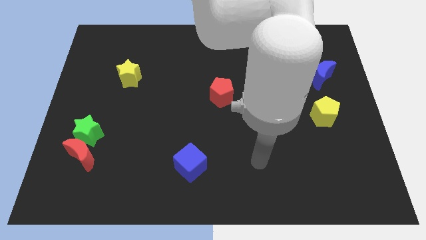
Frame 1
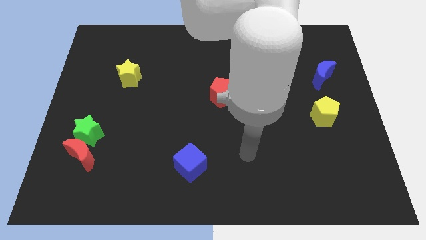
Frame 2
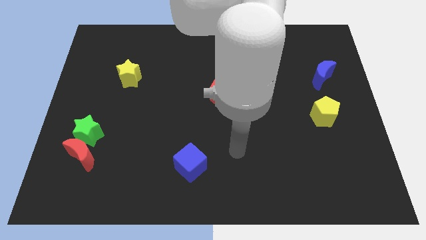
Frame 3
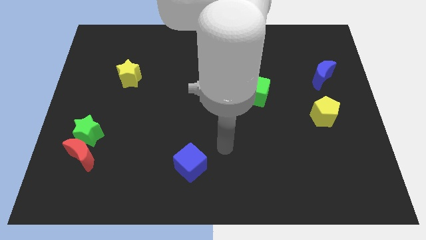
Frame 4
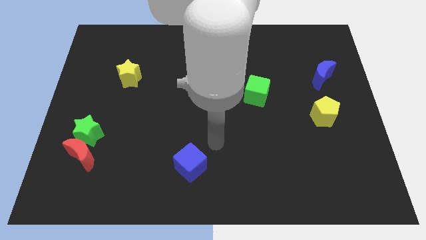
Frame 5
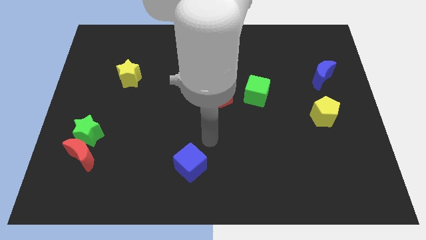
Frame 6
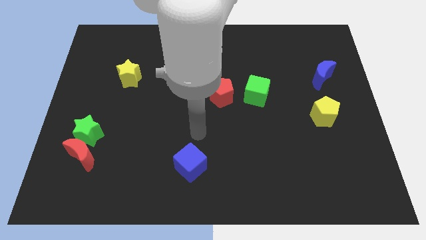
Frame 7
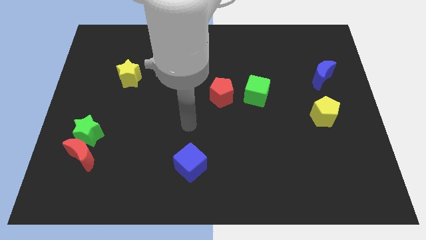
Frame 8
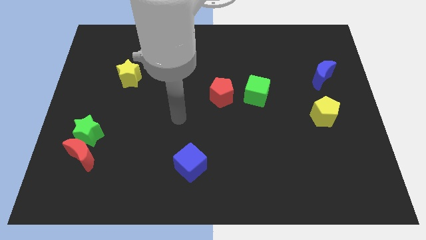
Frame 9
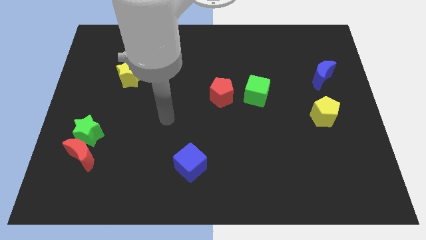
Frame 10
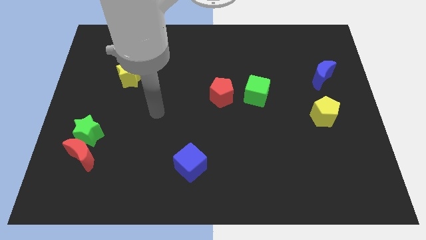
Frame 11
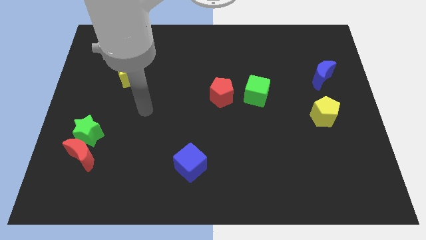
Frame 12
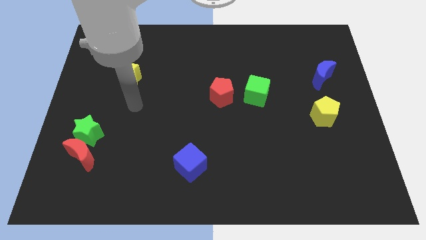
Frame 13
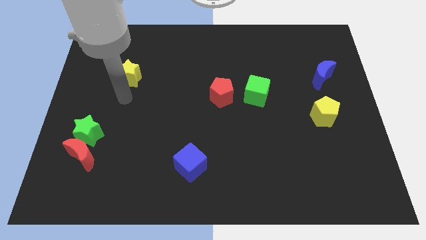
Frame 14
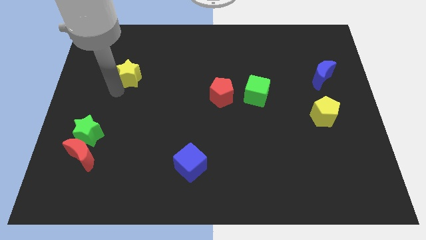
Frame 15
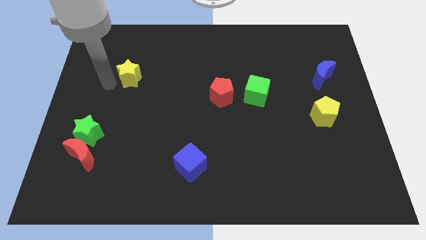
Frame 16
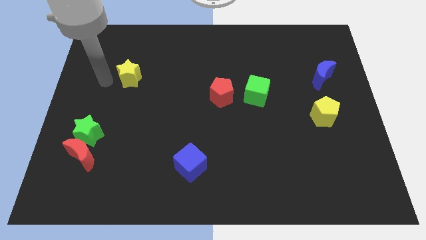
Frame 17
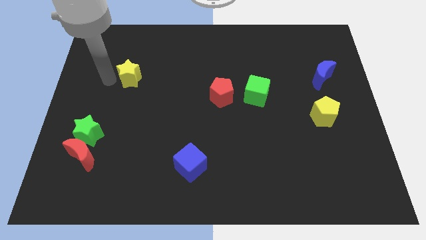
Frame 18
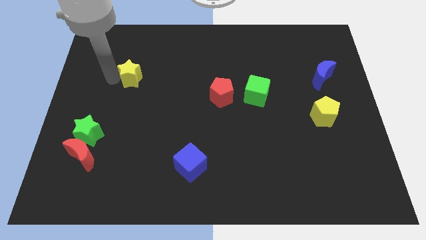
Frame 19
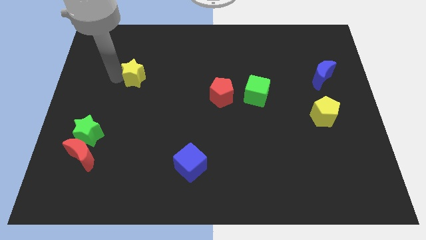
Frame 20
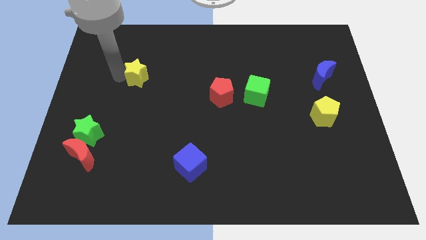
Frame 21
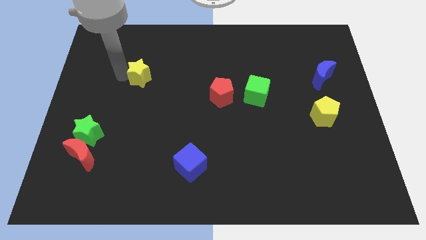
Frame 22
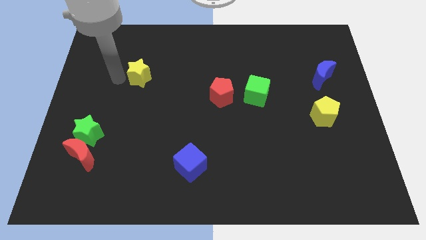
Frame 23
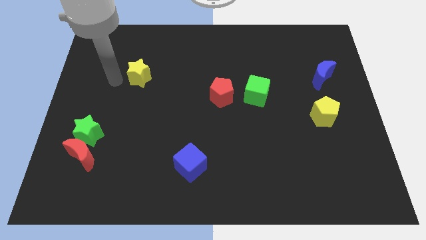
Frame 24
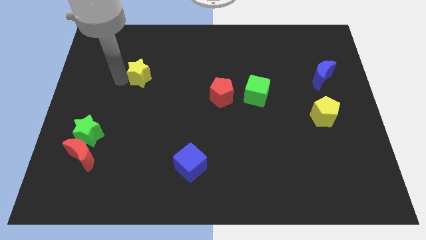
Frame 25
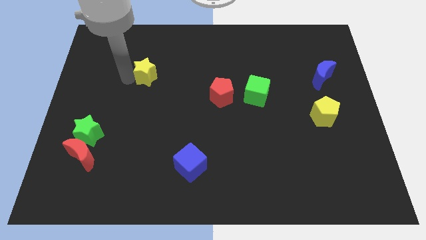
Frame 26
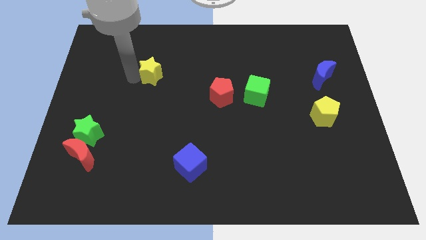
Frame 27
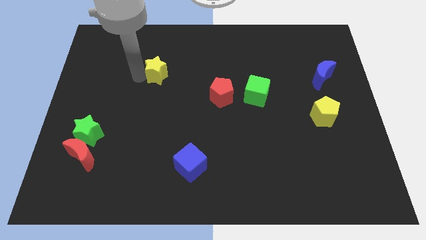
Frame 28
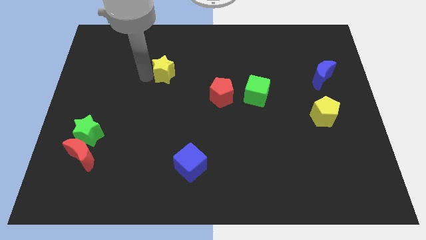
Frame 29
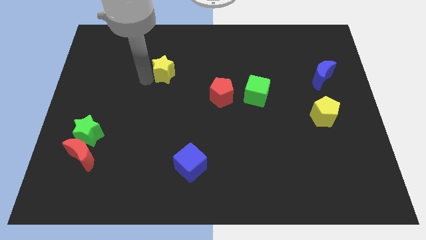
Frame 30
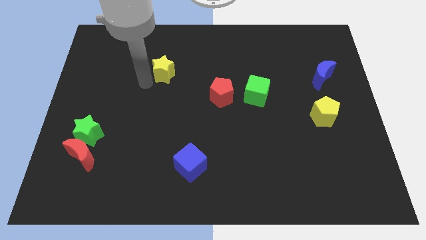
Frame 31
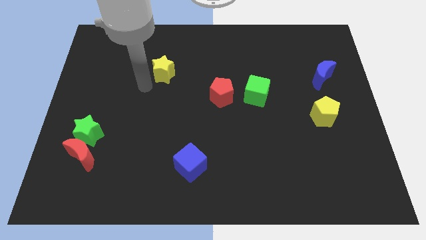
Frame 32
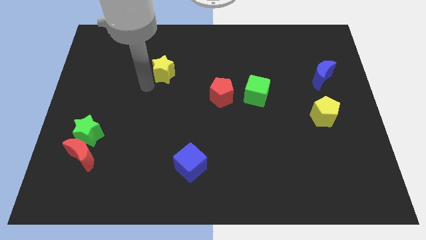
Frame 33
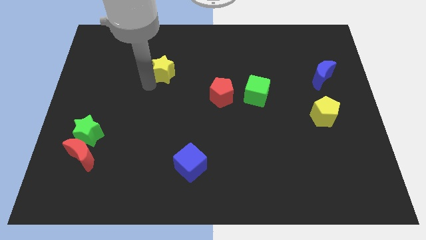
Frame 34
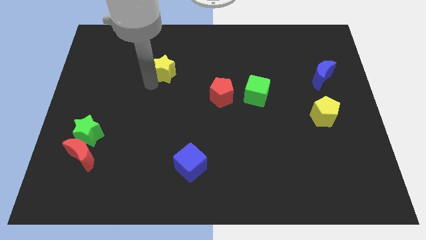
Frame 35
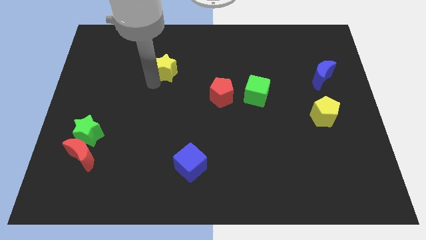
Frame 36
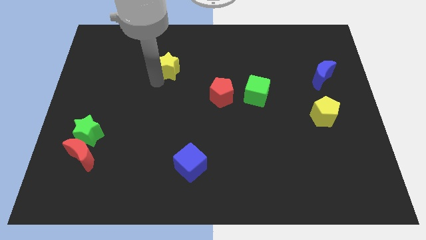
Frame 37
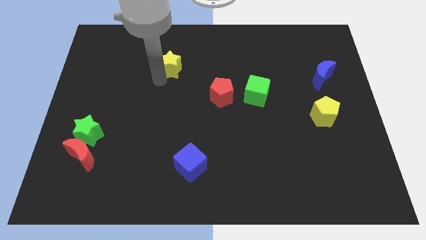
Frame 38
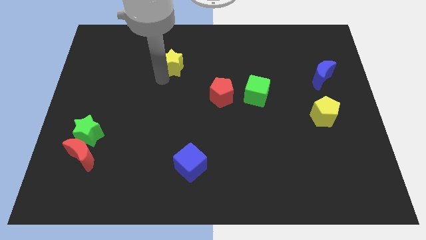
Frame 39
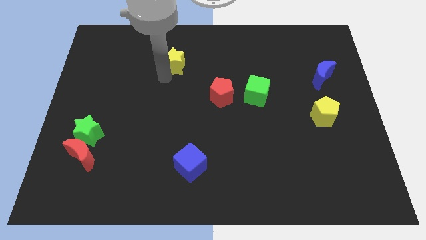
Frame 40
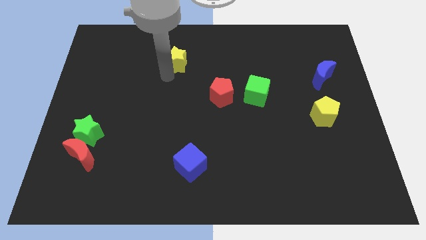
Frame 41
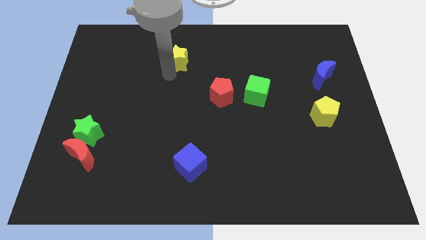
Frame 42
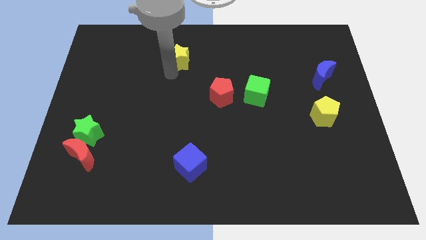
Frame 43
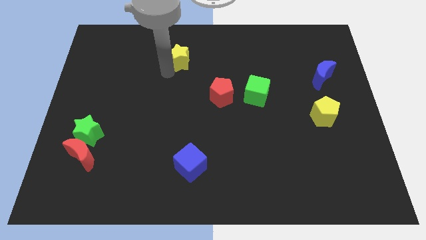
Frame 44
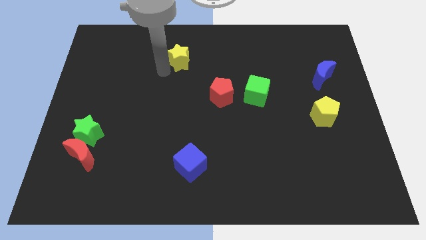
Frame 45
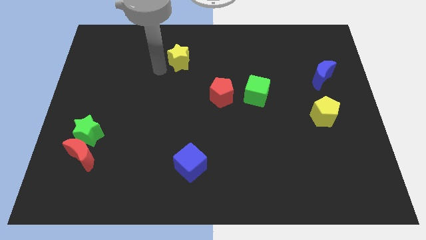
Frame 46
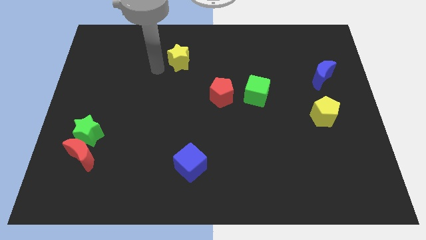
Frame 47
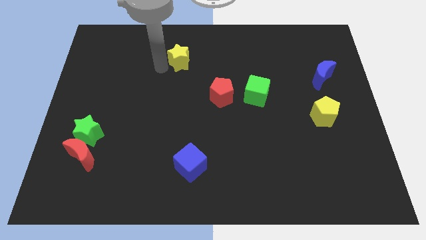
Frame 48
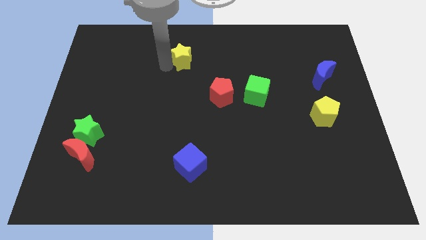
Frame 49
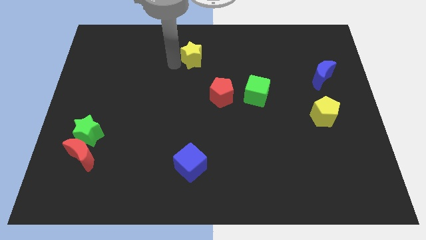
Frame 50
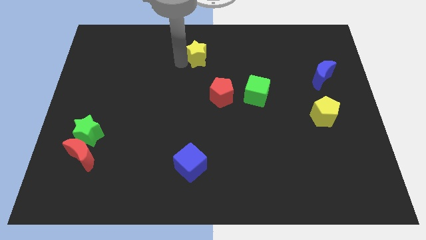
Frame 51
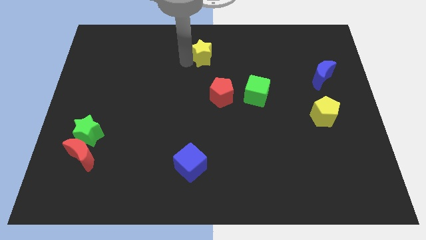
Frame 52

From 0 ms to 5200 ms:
push the yellow star to the top side

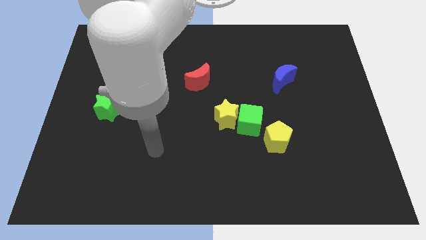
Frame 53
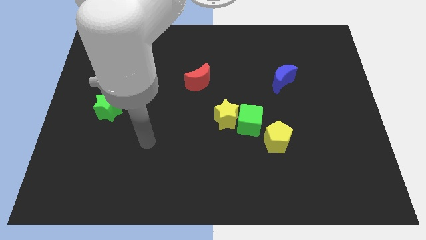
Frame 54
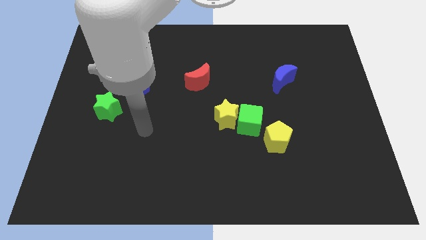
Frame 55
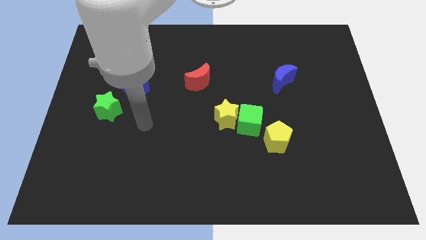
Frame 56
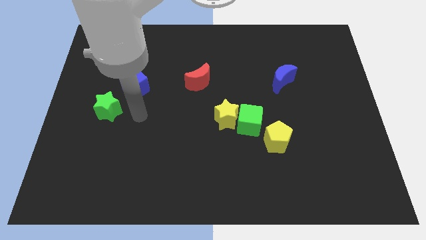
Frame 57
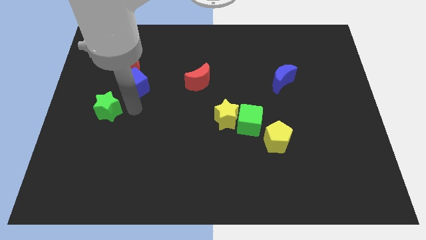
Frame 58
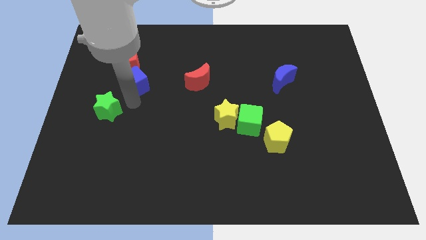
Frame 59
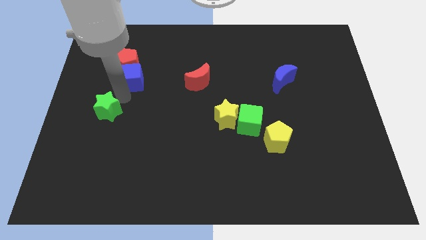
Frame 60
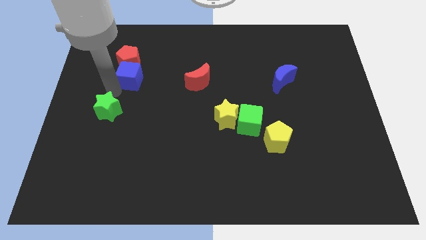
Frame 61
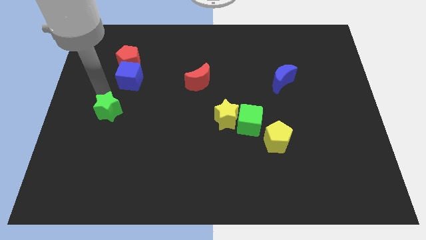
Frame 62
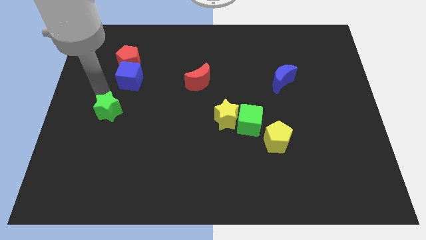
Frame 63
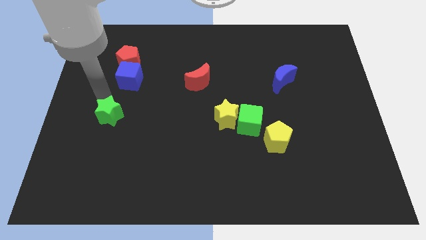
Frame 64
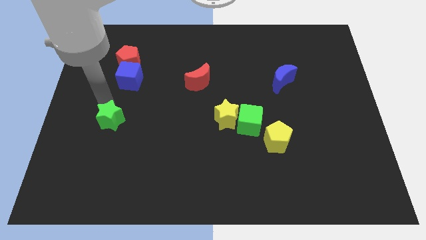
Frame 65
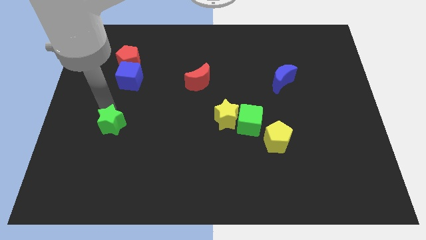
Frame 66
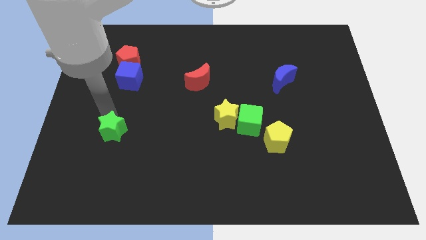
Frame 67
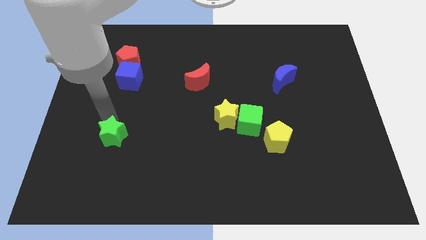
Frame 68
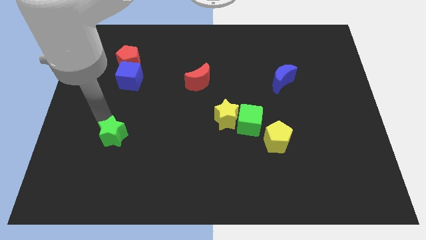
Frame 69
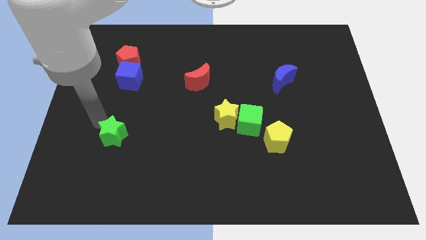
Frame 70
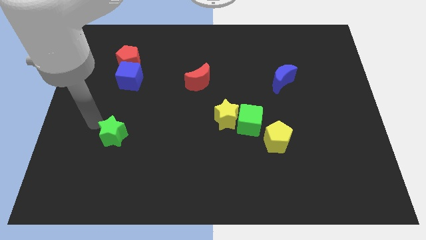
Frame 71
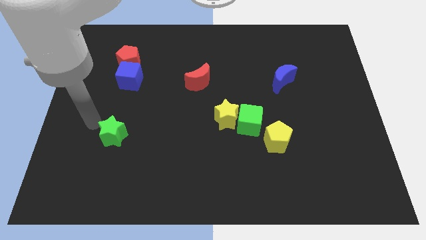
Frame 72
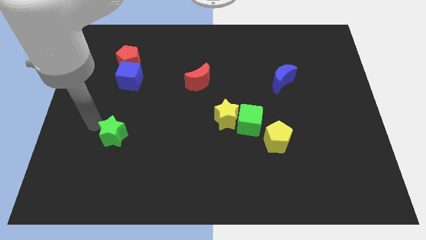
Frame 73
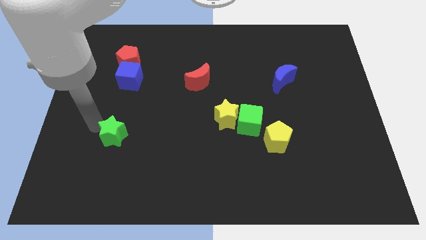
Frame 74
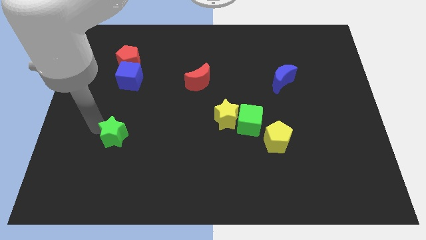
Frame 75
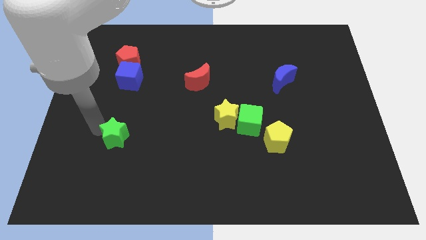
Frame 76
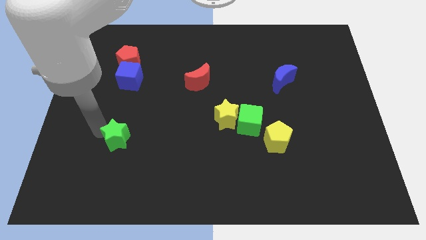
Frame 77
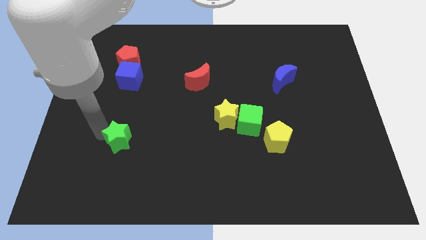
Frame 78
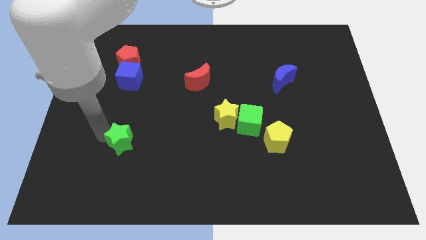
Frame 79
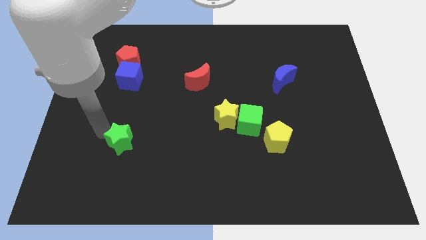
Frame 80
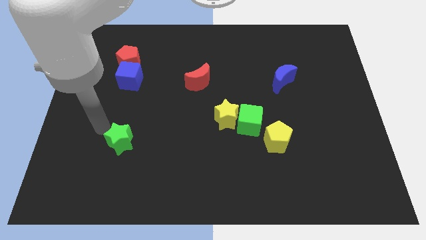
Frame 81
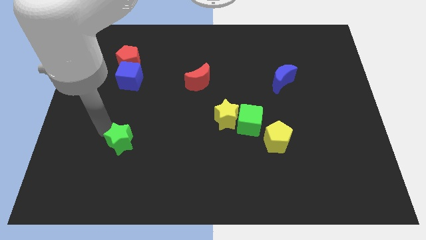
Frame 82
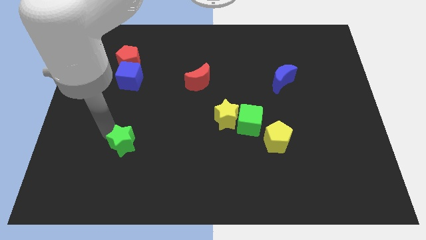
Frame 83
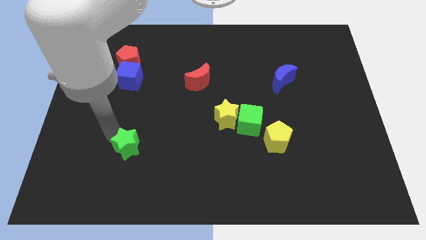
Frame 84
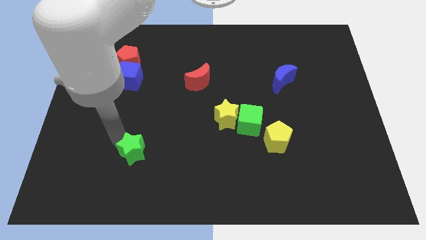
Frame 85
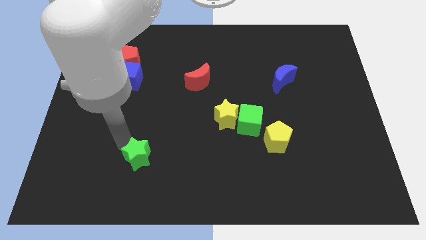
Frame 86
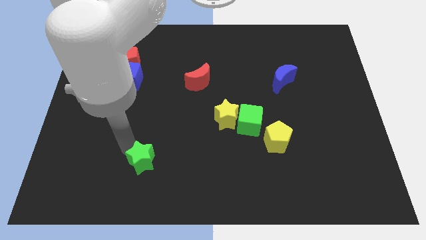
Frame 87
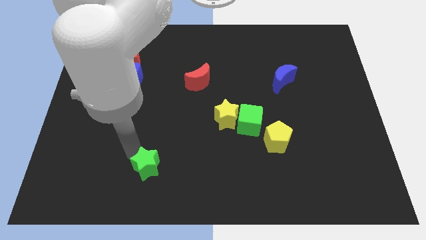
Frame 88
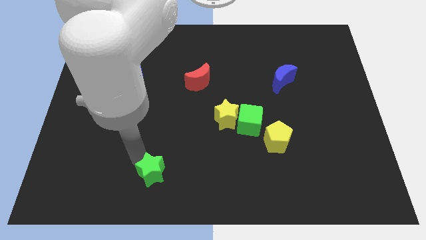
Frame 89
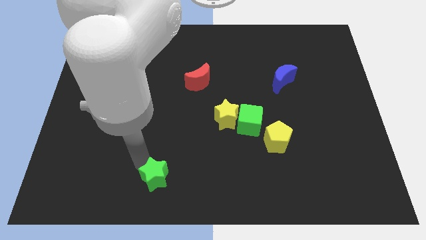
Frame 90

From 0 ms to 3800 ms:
slide the green star to the bottom side
